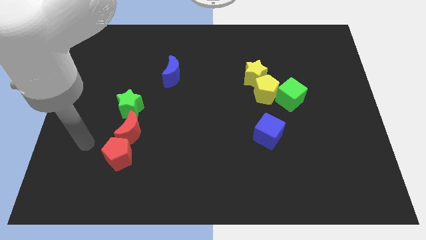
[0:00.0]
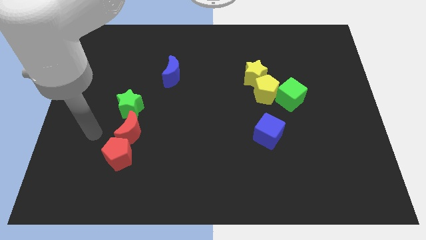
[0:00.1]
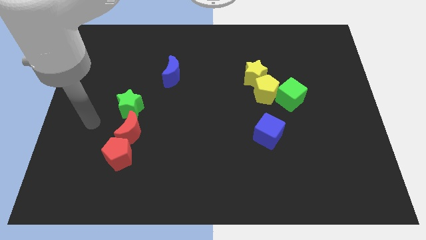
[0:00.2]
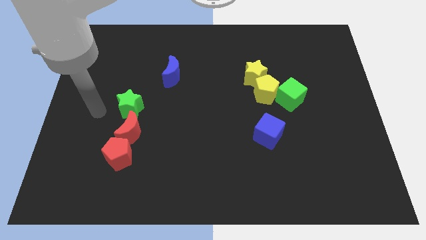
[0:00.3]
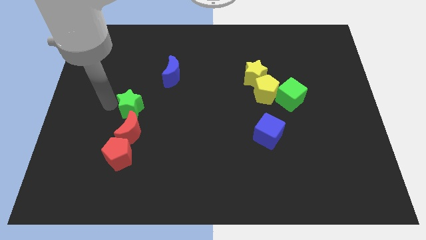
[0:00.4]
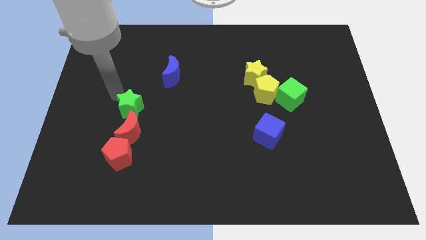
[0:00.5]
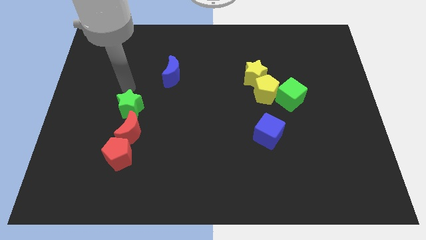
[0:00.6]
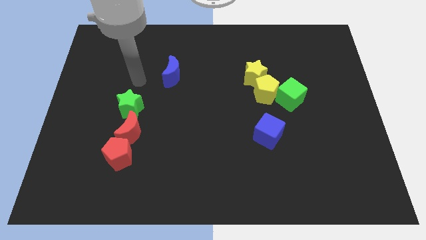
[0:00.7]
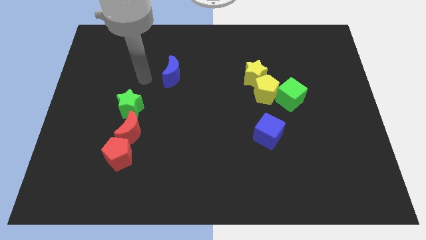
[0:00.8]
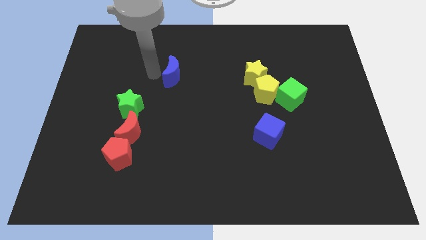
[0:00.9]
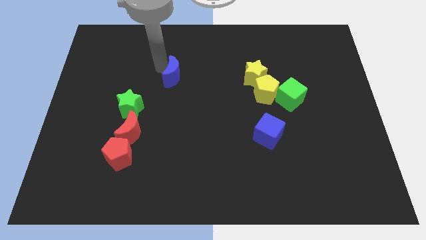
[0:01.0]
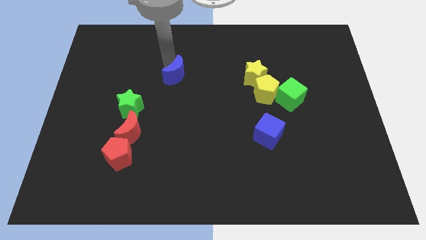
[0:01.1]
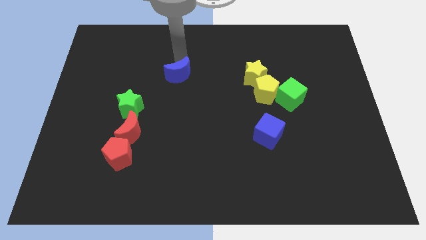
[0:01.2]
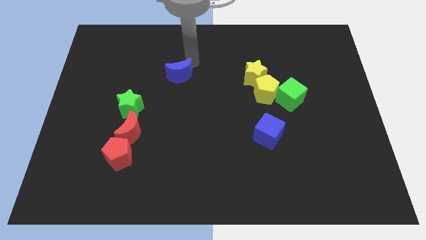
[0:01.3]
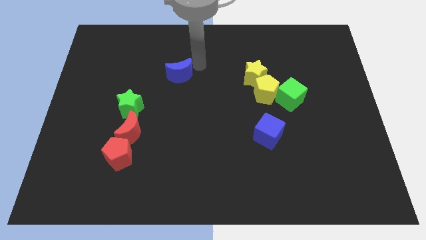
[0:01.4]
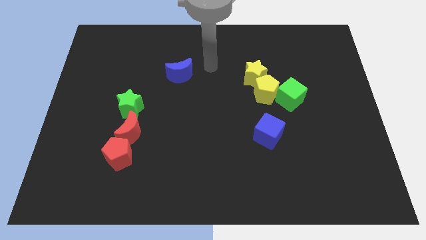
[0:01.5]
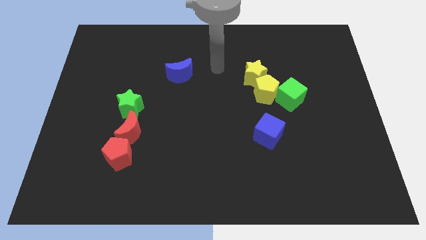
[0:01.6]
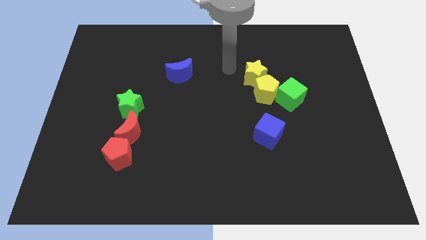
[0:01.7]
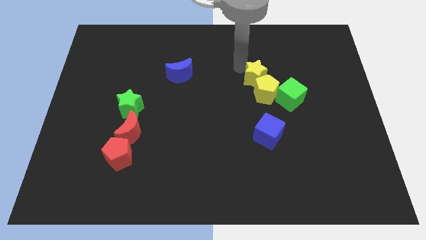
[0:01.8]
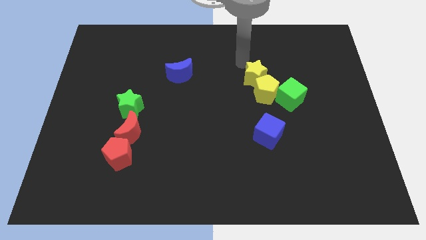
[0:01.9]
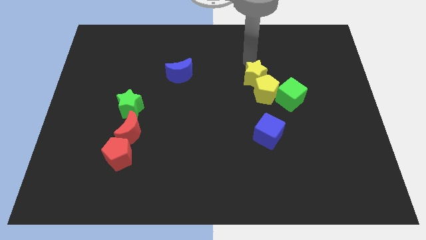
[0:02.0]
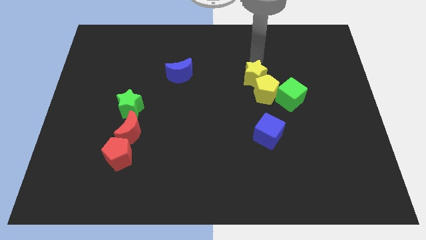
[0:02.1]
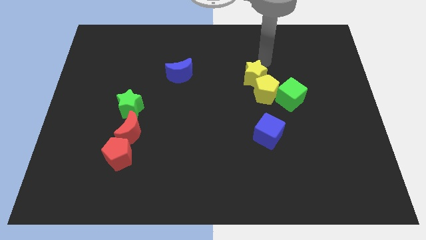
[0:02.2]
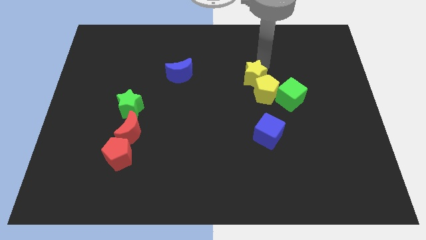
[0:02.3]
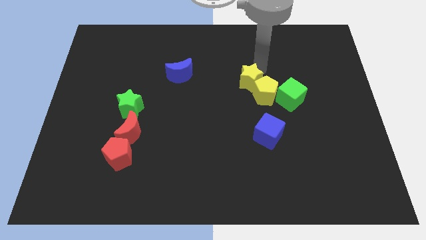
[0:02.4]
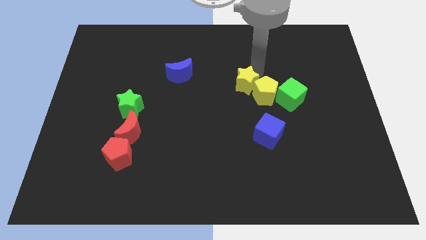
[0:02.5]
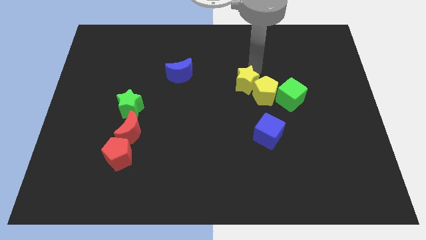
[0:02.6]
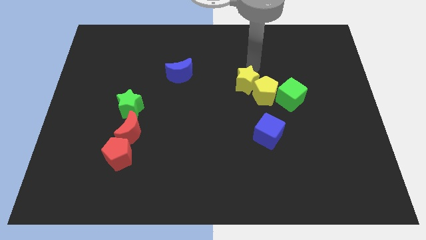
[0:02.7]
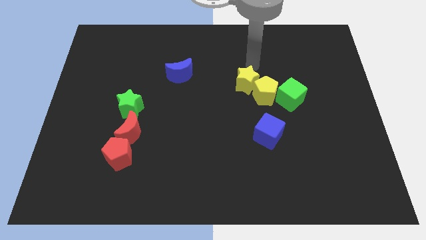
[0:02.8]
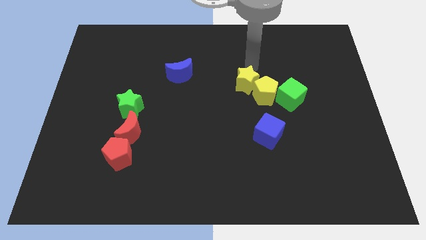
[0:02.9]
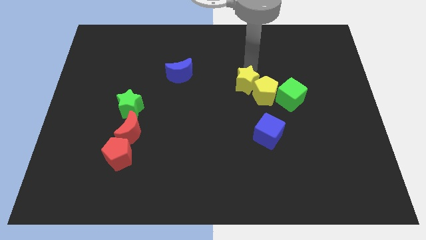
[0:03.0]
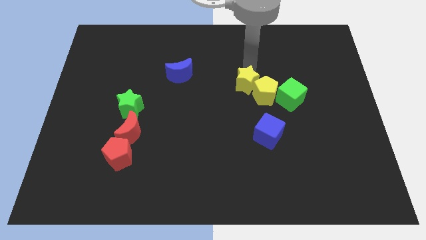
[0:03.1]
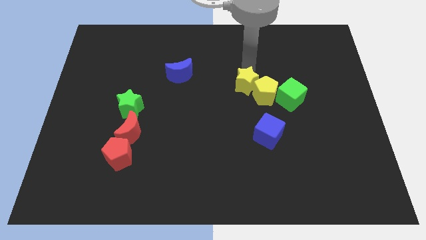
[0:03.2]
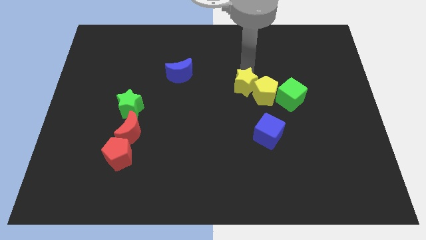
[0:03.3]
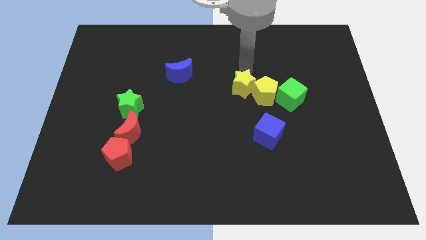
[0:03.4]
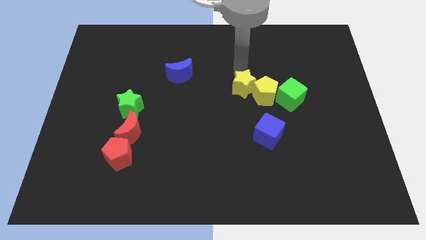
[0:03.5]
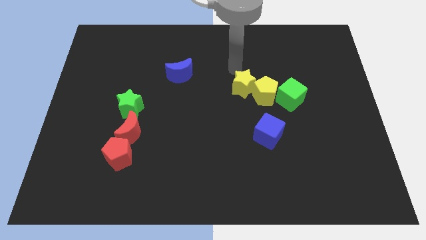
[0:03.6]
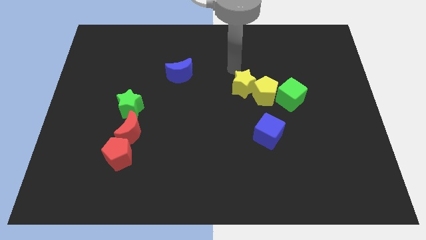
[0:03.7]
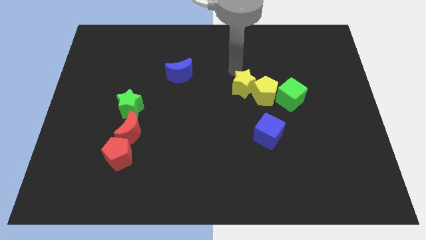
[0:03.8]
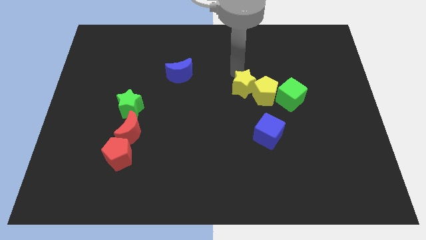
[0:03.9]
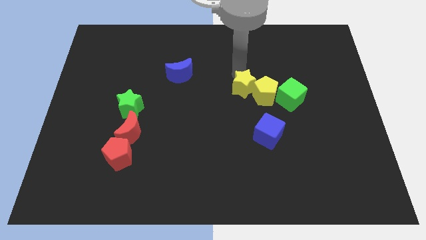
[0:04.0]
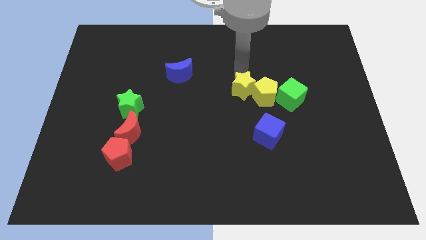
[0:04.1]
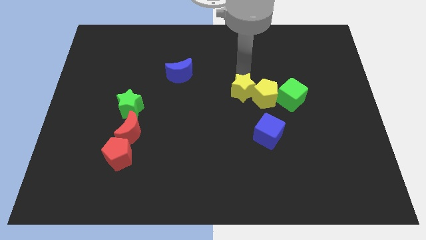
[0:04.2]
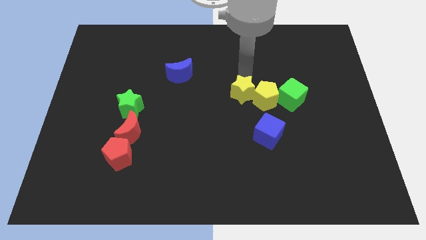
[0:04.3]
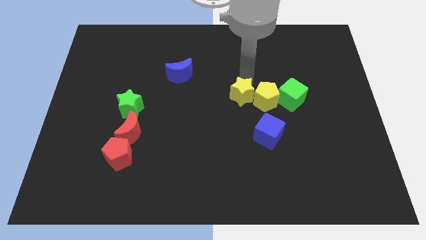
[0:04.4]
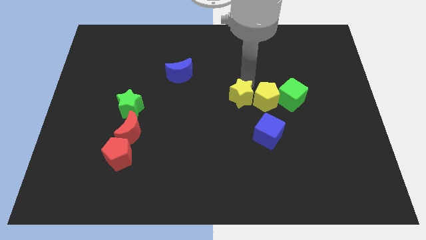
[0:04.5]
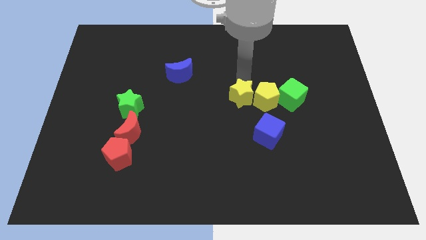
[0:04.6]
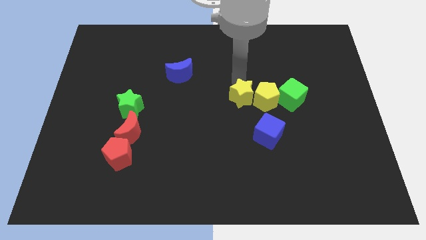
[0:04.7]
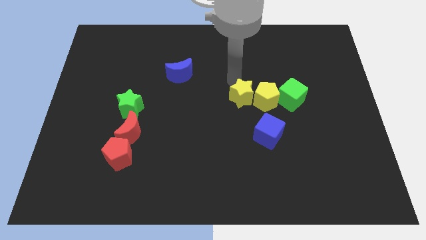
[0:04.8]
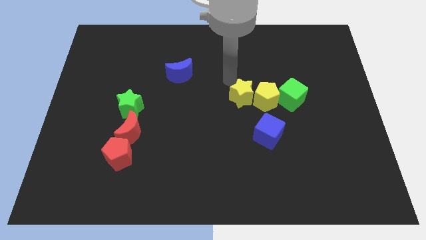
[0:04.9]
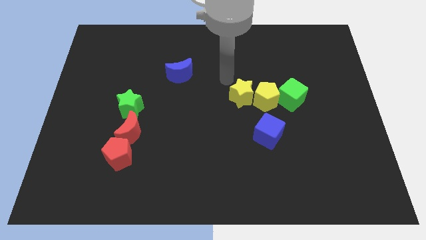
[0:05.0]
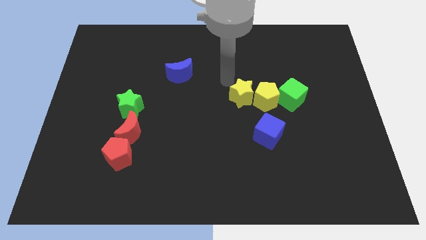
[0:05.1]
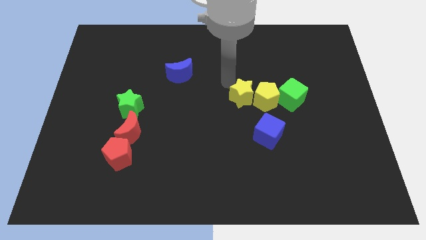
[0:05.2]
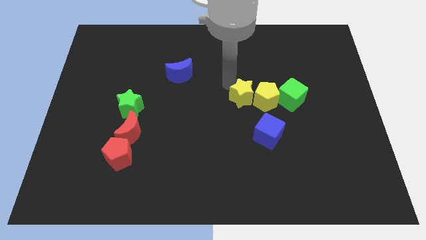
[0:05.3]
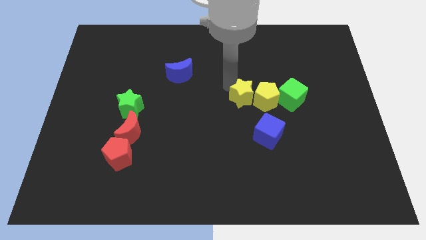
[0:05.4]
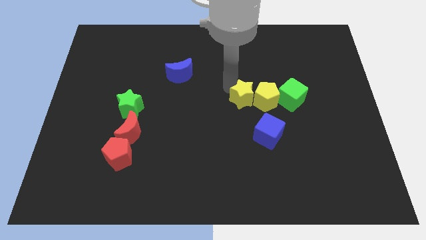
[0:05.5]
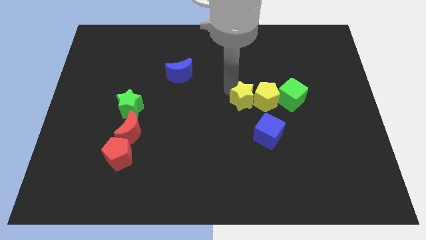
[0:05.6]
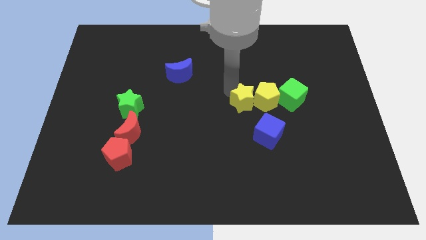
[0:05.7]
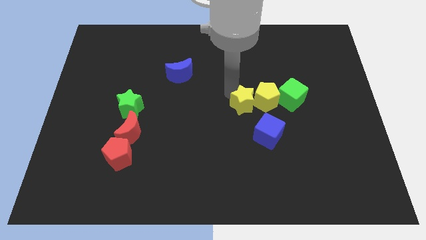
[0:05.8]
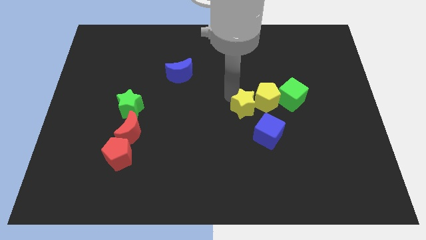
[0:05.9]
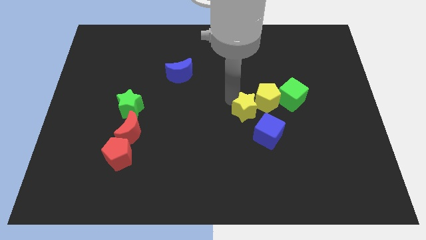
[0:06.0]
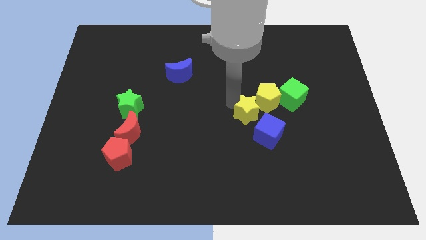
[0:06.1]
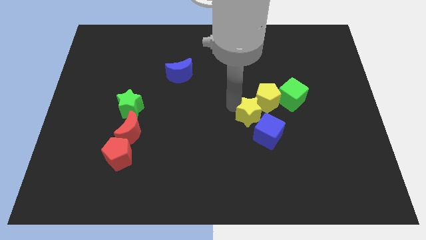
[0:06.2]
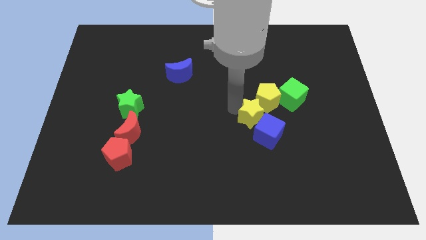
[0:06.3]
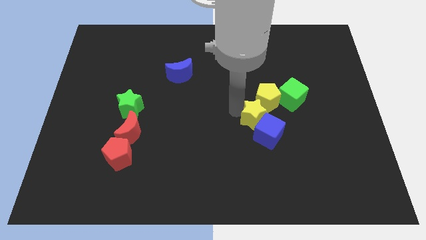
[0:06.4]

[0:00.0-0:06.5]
push the yellow star to the blue cube
